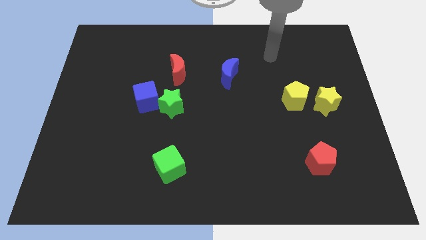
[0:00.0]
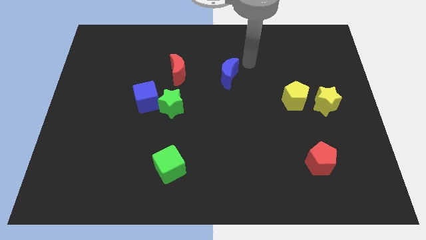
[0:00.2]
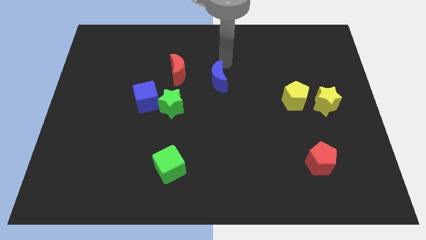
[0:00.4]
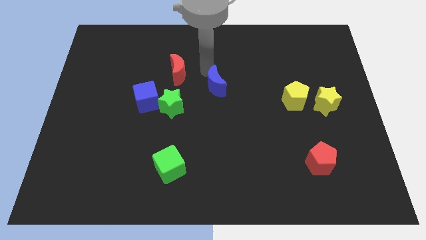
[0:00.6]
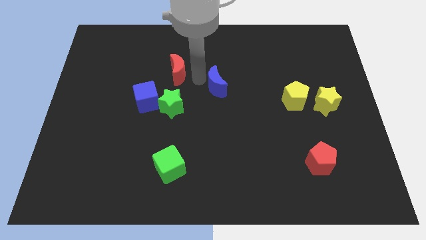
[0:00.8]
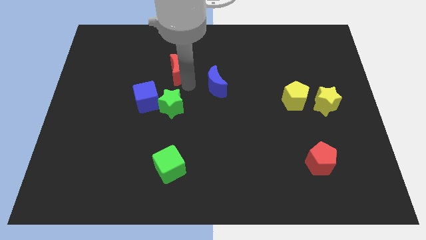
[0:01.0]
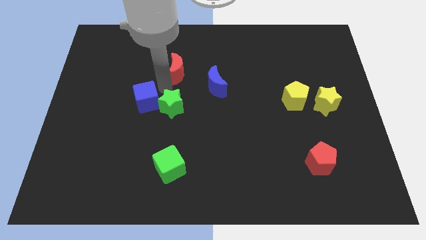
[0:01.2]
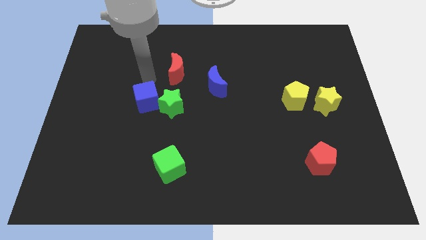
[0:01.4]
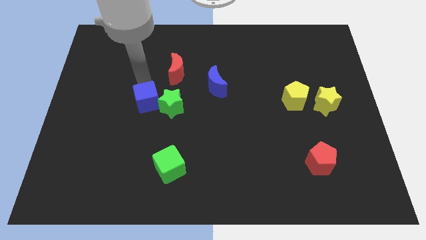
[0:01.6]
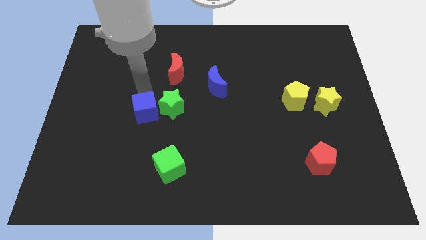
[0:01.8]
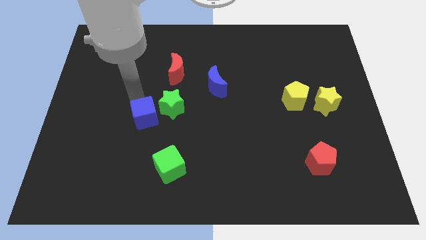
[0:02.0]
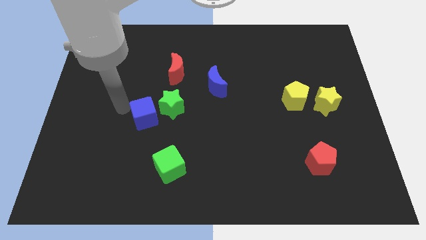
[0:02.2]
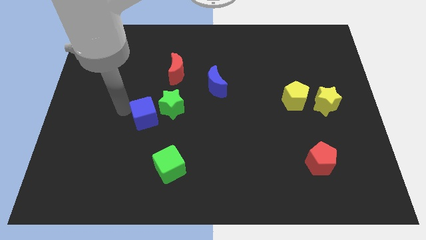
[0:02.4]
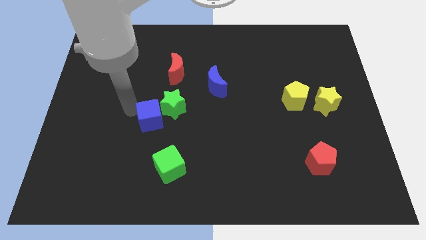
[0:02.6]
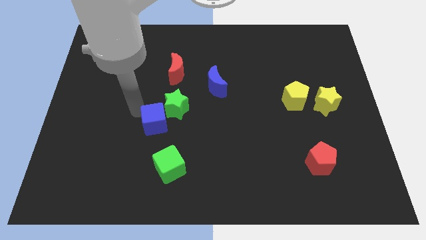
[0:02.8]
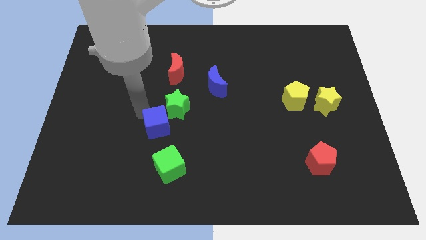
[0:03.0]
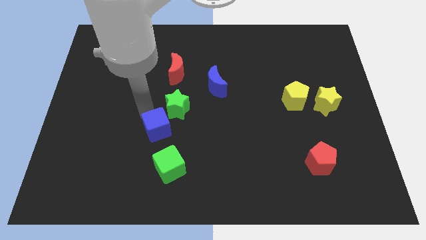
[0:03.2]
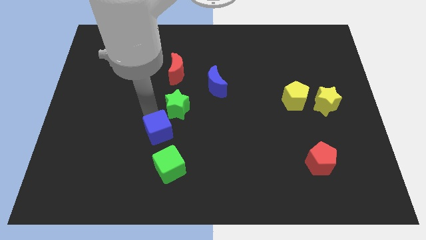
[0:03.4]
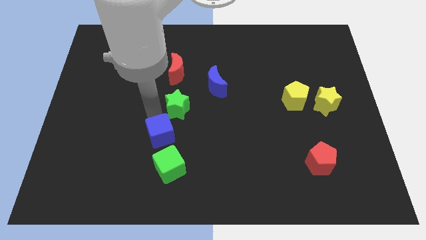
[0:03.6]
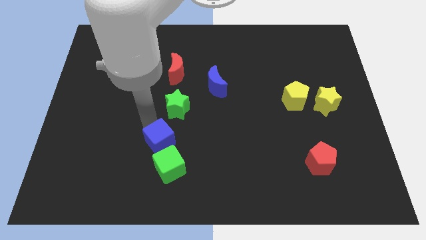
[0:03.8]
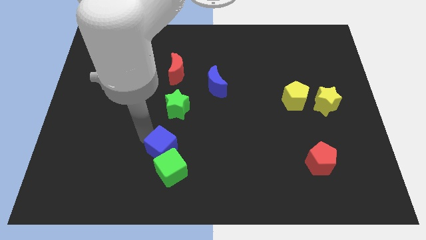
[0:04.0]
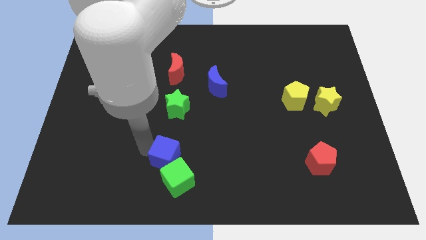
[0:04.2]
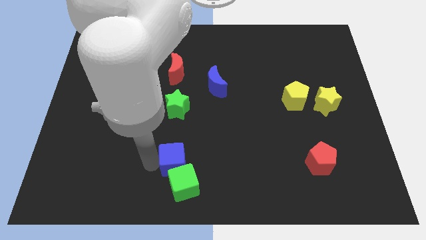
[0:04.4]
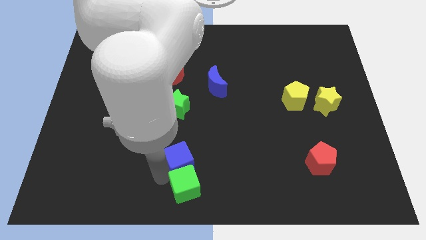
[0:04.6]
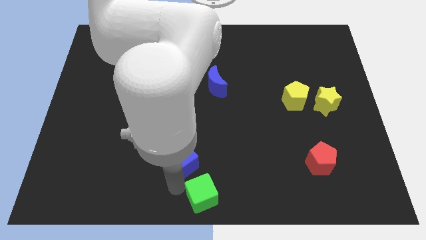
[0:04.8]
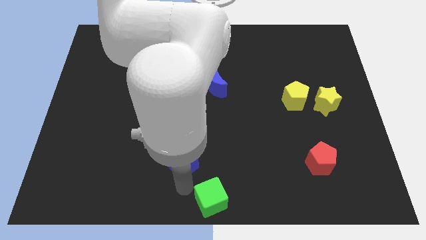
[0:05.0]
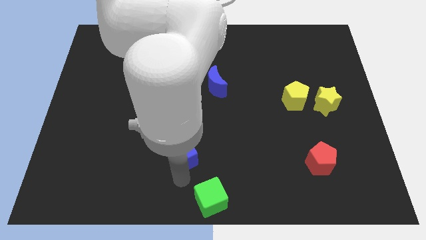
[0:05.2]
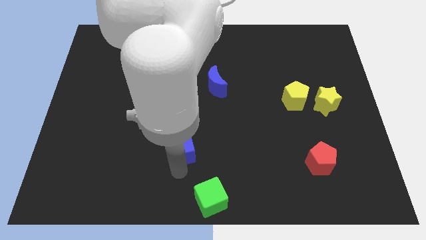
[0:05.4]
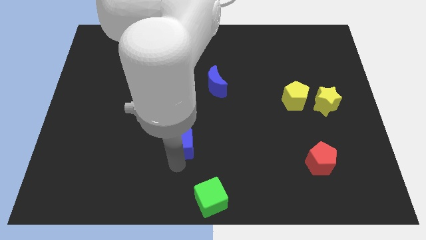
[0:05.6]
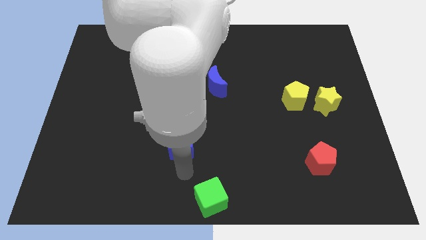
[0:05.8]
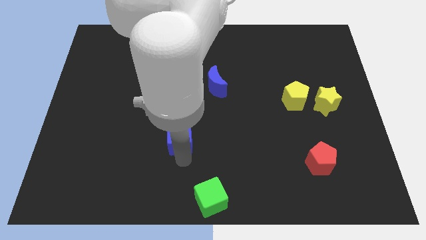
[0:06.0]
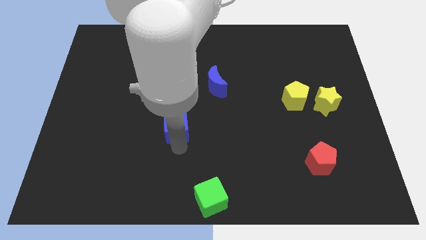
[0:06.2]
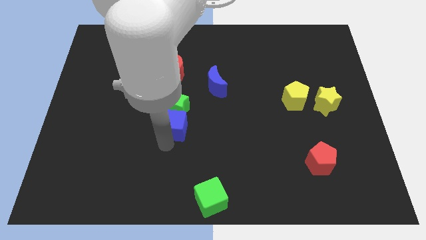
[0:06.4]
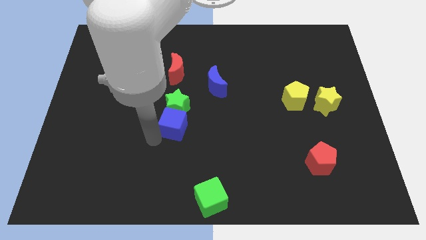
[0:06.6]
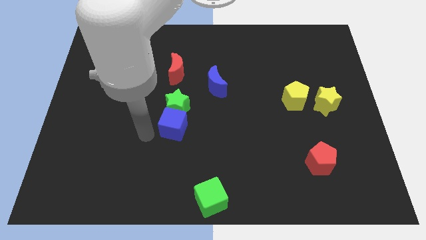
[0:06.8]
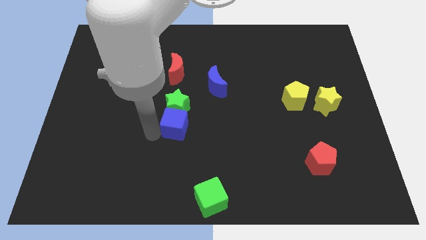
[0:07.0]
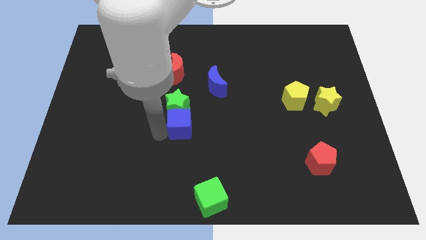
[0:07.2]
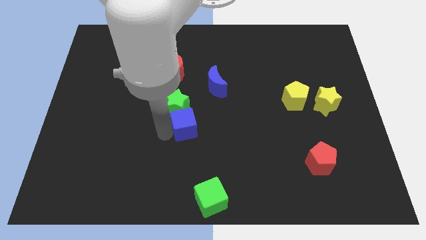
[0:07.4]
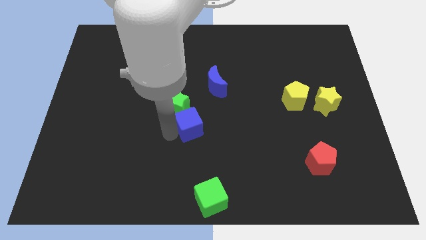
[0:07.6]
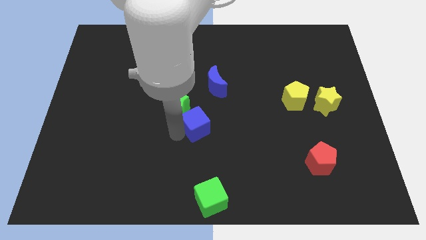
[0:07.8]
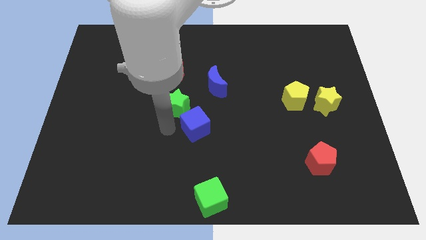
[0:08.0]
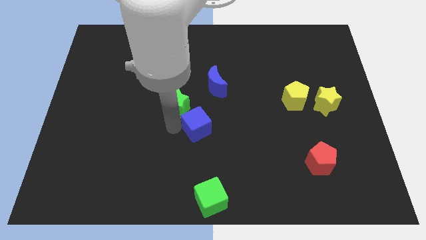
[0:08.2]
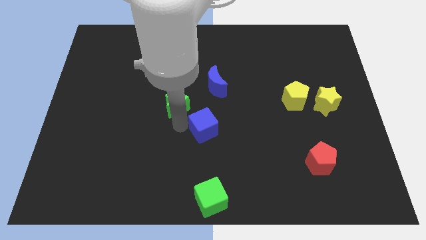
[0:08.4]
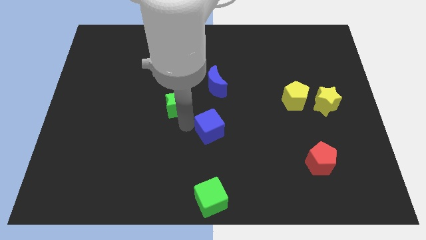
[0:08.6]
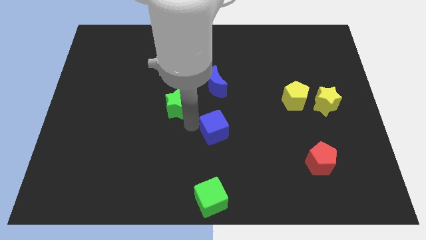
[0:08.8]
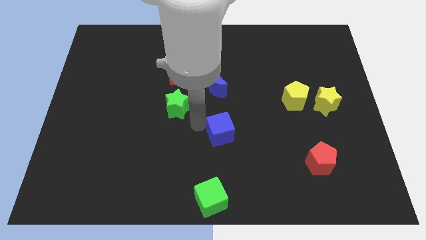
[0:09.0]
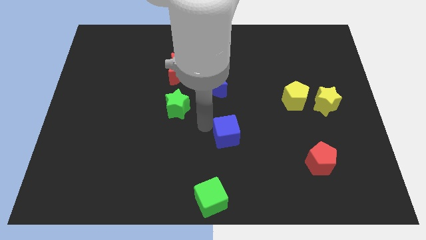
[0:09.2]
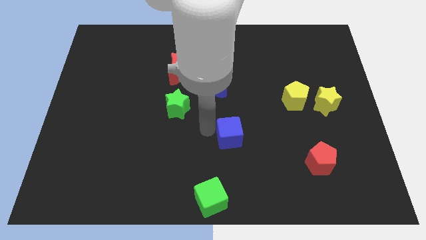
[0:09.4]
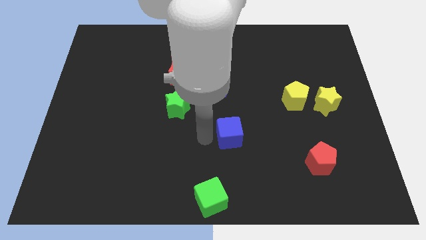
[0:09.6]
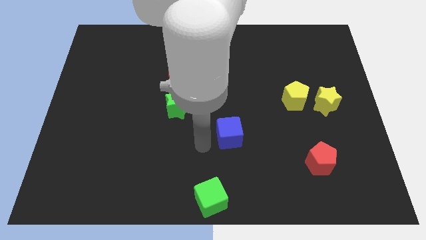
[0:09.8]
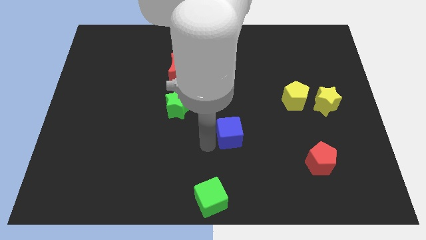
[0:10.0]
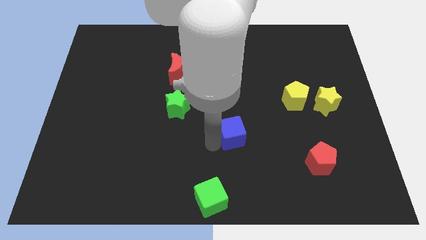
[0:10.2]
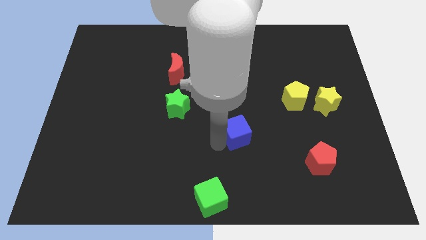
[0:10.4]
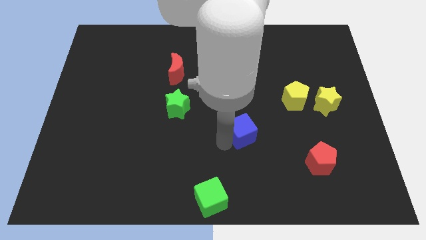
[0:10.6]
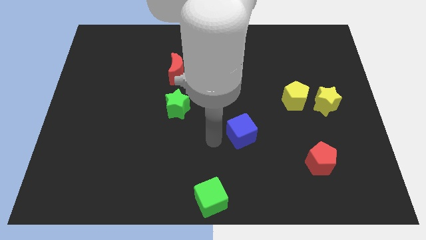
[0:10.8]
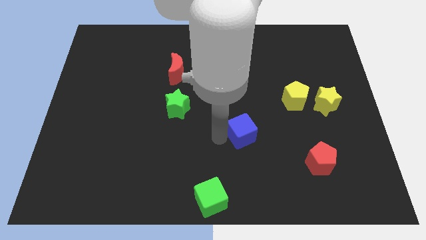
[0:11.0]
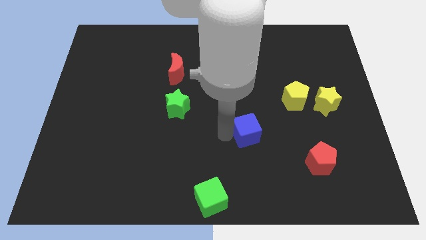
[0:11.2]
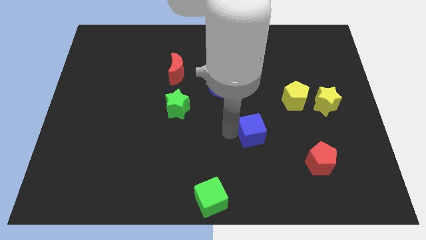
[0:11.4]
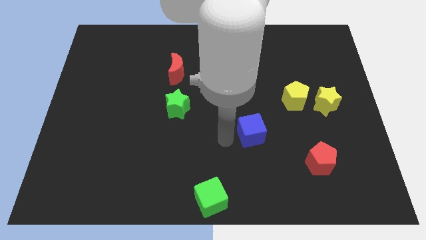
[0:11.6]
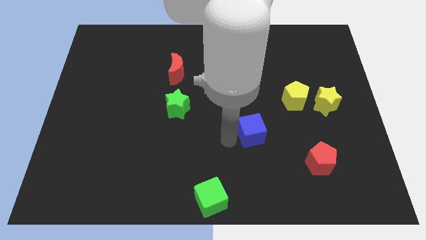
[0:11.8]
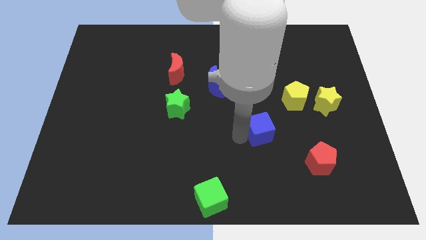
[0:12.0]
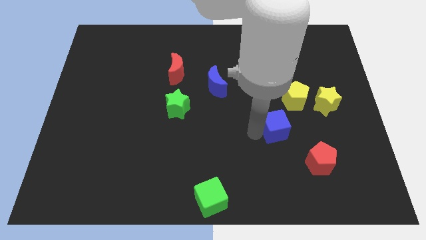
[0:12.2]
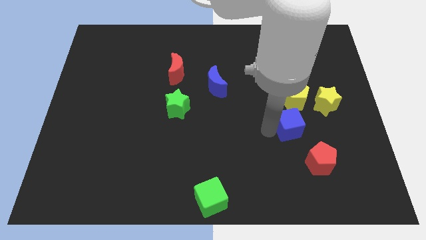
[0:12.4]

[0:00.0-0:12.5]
move the blue cube diagonally down and to the left of the yellow star

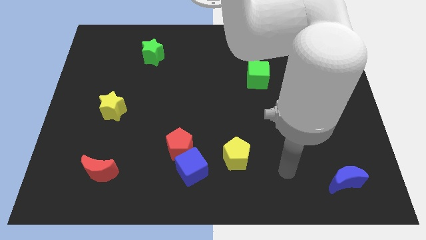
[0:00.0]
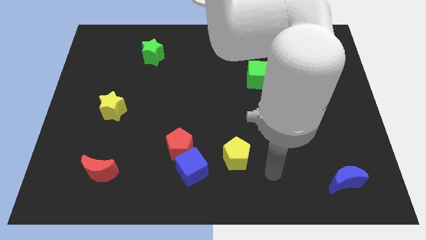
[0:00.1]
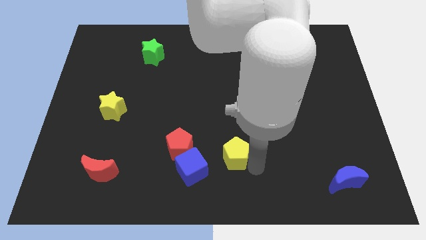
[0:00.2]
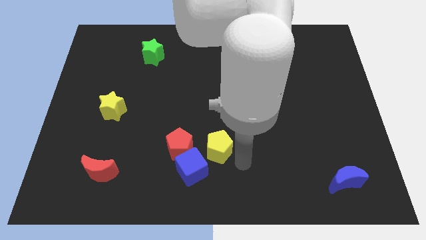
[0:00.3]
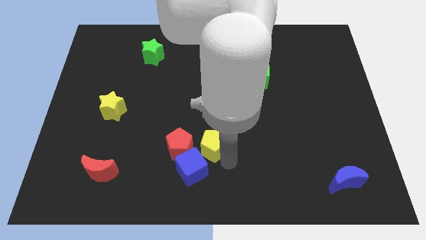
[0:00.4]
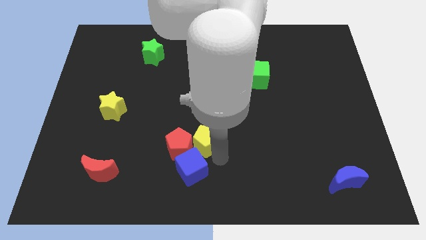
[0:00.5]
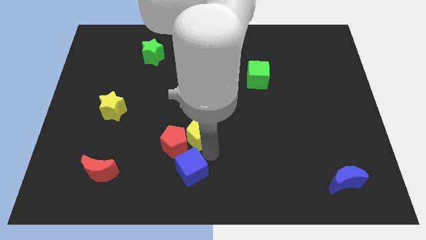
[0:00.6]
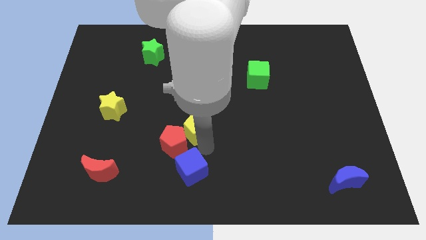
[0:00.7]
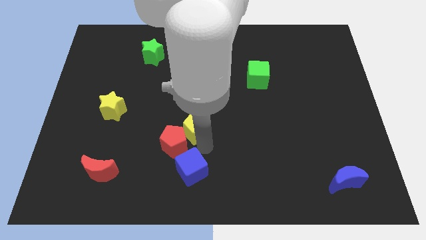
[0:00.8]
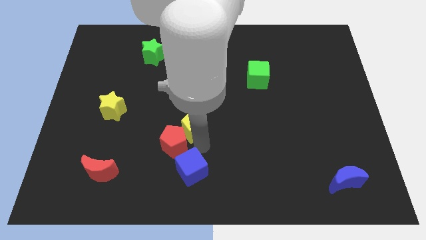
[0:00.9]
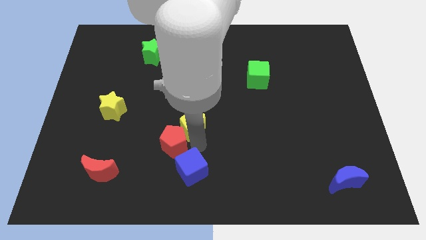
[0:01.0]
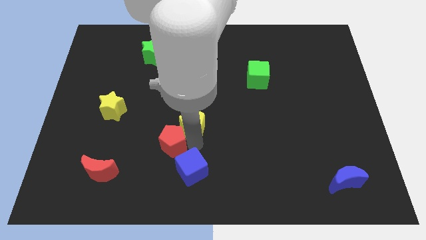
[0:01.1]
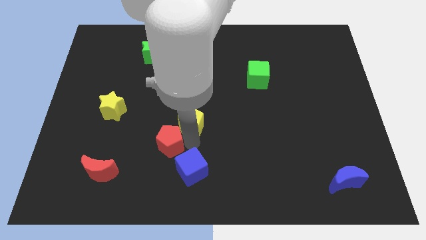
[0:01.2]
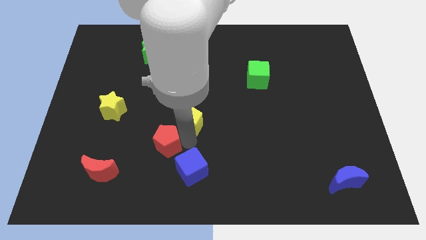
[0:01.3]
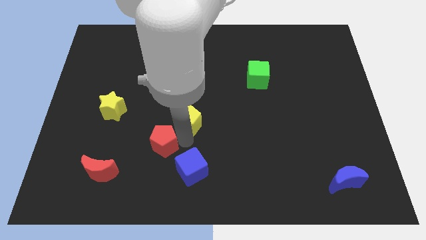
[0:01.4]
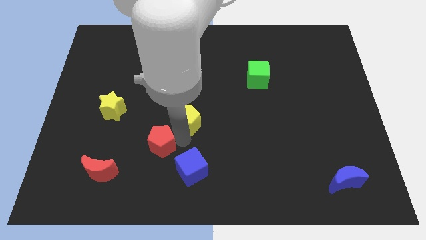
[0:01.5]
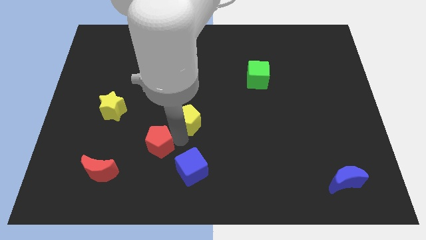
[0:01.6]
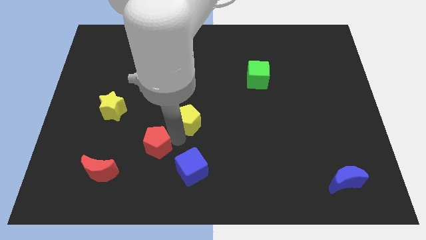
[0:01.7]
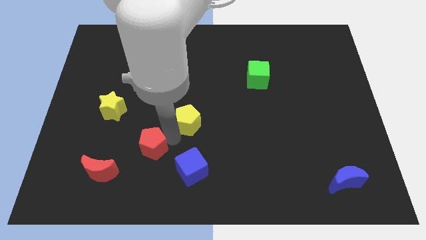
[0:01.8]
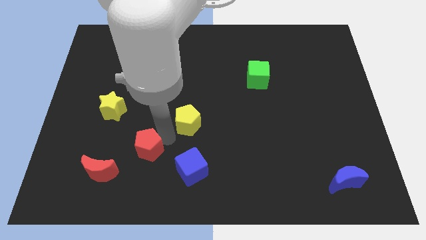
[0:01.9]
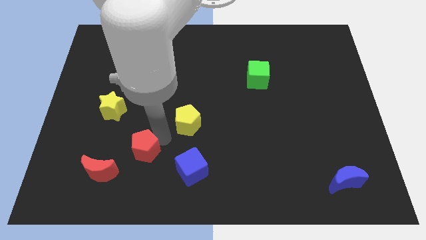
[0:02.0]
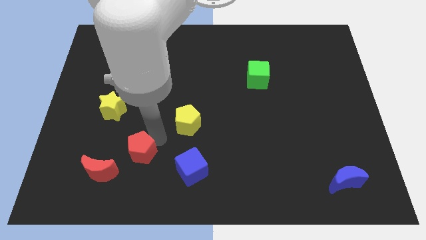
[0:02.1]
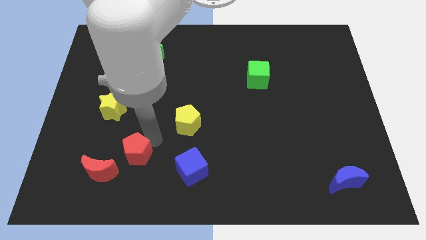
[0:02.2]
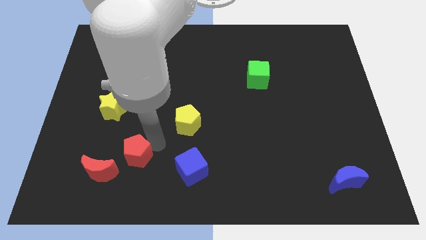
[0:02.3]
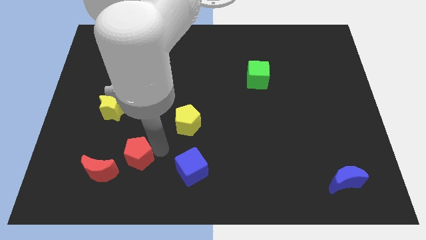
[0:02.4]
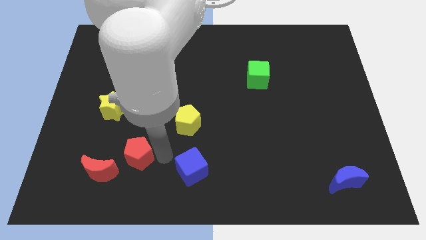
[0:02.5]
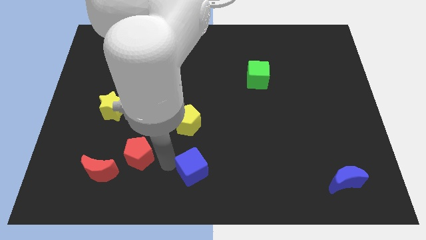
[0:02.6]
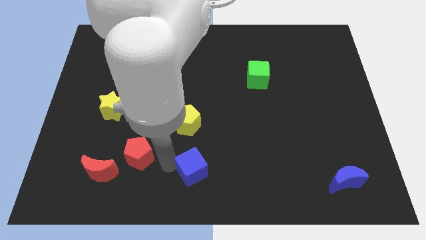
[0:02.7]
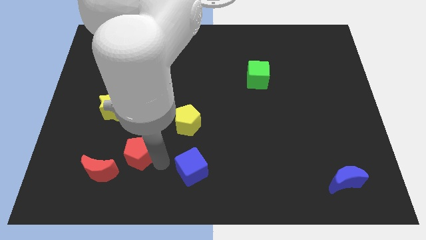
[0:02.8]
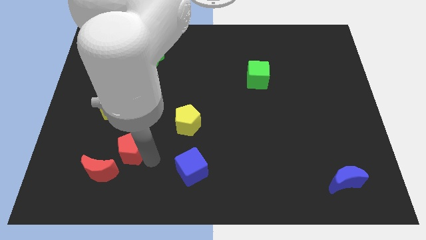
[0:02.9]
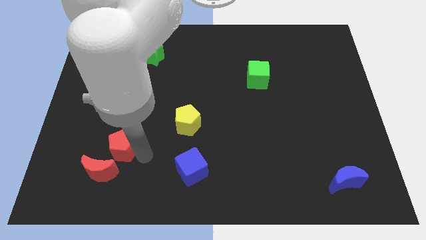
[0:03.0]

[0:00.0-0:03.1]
slide the red pentagon below the yellow star
